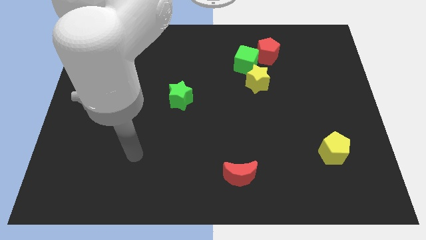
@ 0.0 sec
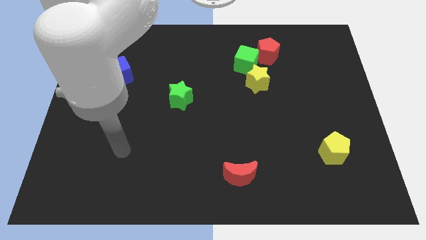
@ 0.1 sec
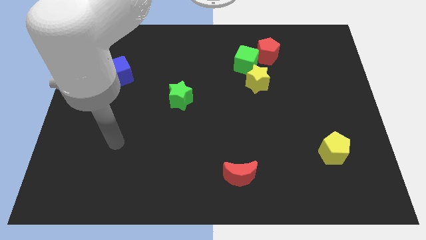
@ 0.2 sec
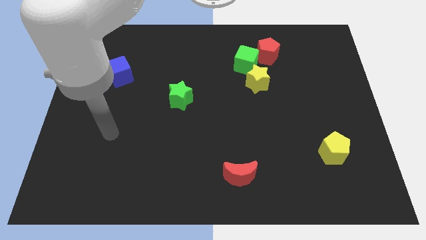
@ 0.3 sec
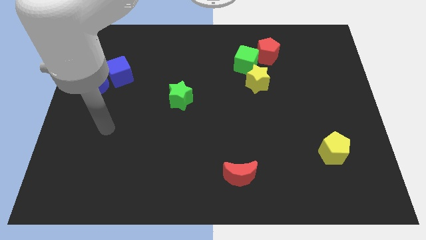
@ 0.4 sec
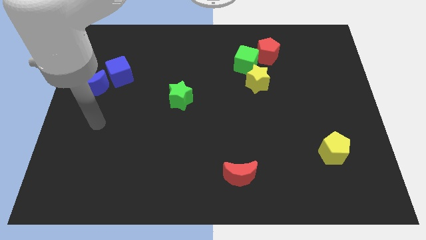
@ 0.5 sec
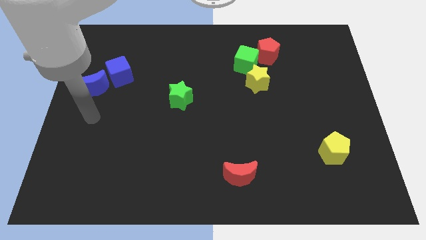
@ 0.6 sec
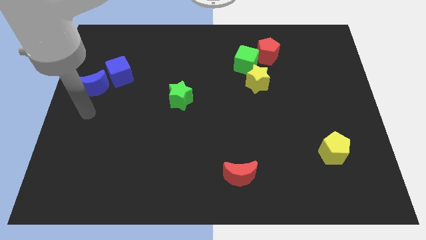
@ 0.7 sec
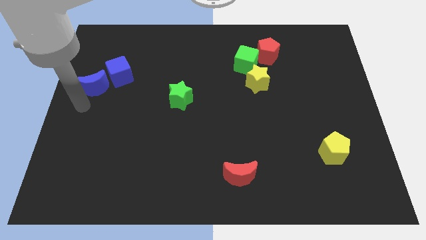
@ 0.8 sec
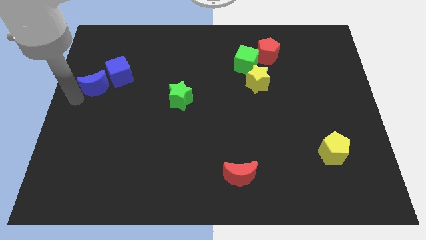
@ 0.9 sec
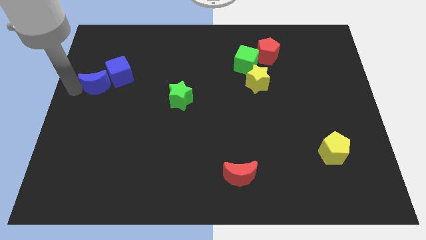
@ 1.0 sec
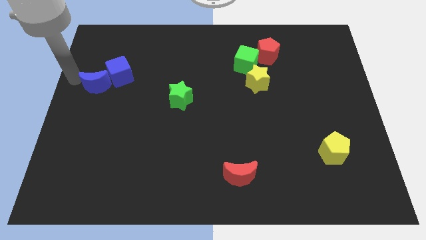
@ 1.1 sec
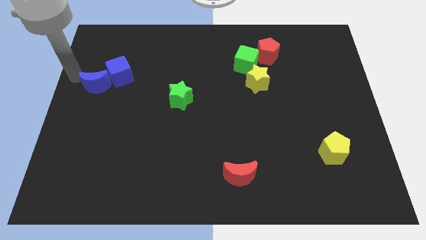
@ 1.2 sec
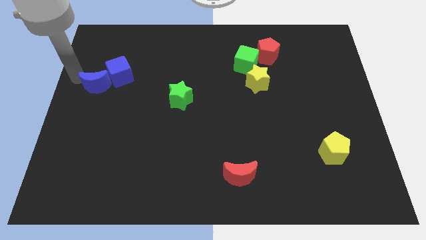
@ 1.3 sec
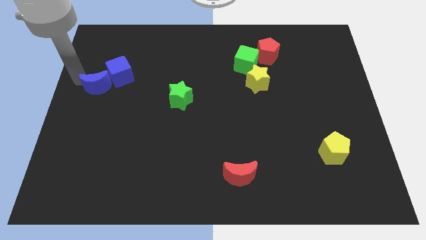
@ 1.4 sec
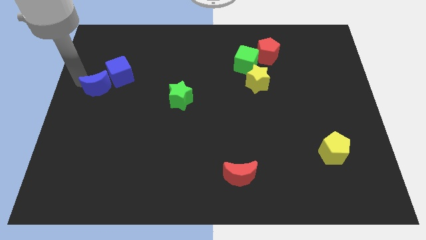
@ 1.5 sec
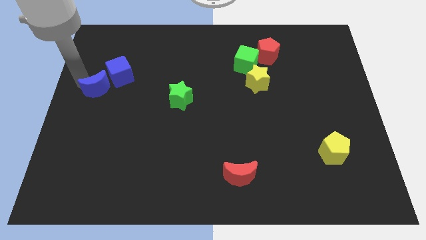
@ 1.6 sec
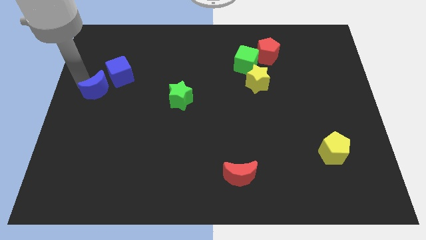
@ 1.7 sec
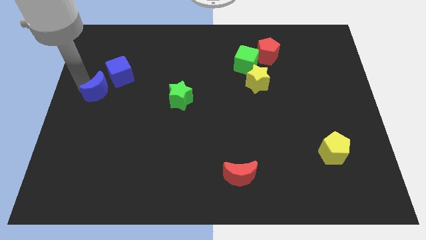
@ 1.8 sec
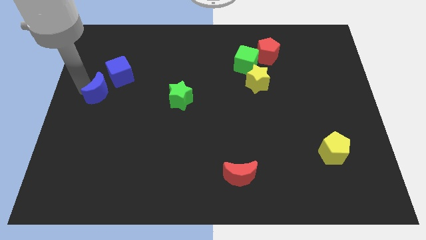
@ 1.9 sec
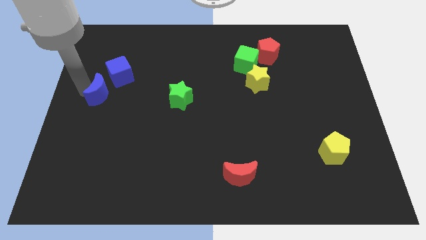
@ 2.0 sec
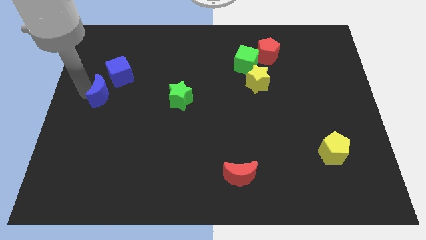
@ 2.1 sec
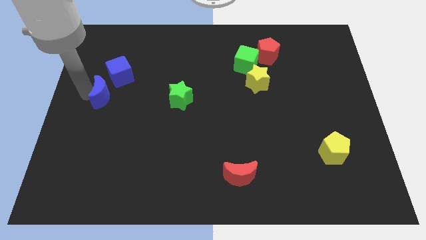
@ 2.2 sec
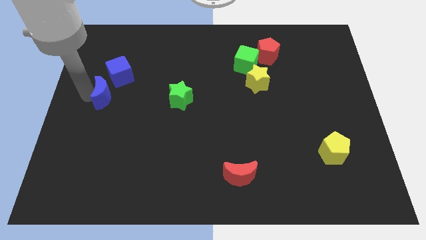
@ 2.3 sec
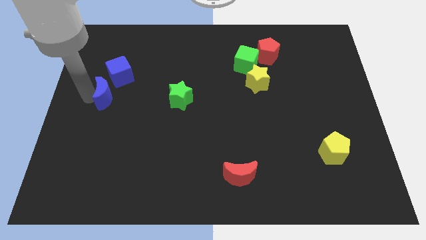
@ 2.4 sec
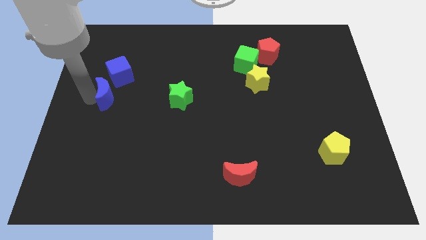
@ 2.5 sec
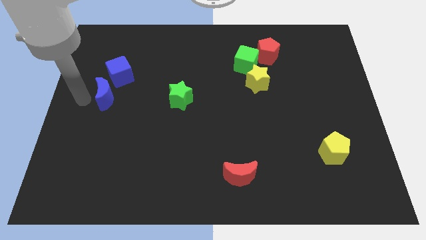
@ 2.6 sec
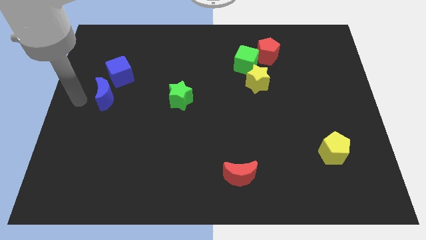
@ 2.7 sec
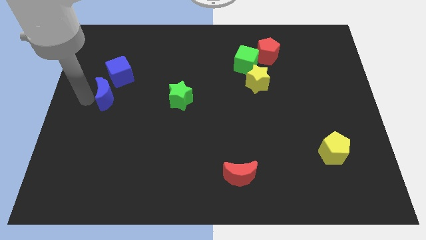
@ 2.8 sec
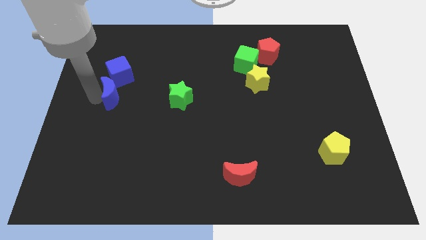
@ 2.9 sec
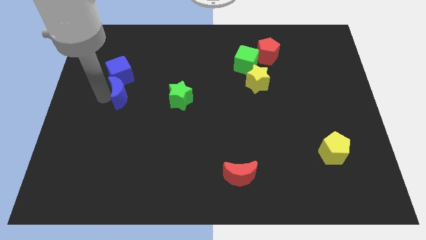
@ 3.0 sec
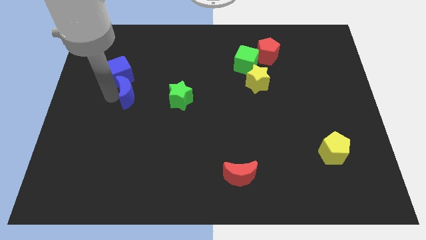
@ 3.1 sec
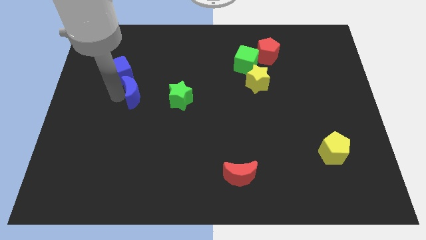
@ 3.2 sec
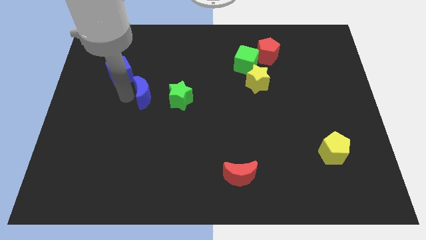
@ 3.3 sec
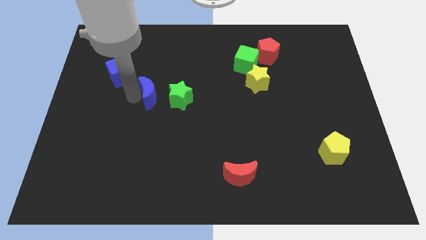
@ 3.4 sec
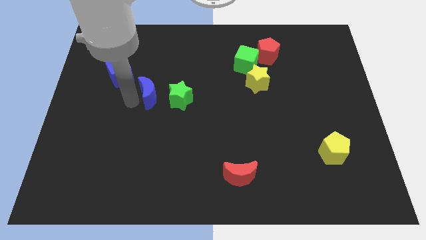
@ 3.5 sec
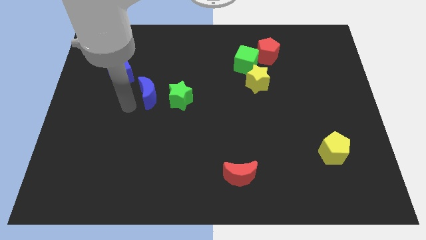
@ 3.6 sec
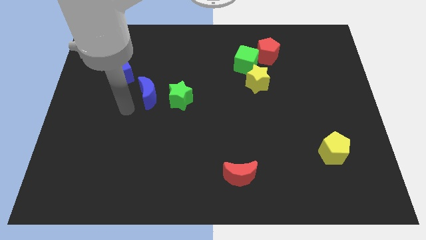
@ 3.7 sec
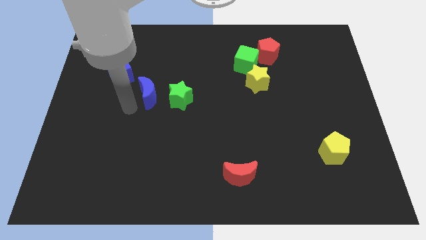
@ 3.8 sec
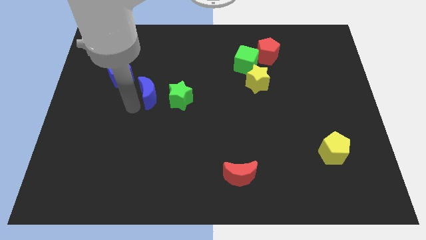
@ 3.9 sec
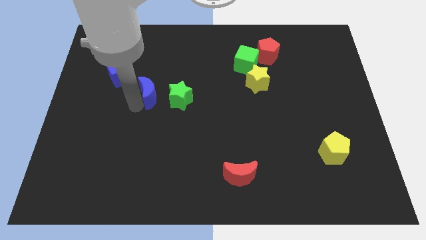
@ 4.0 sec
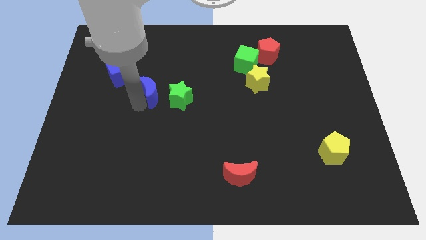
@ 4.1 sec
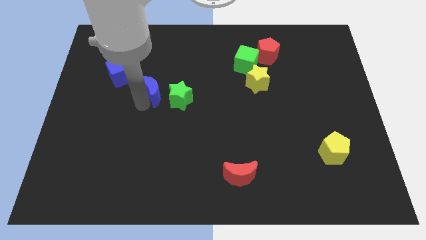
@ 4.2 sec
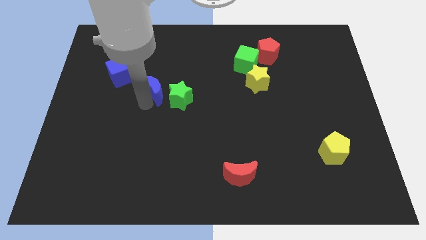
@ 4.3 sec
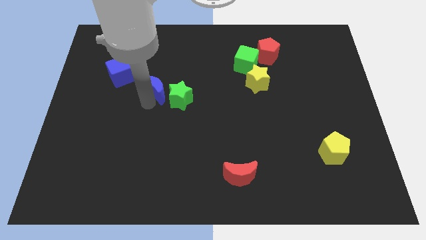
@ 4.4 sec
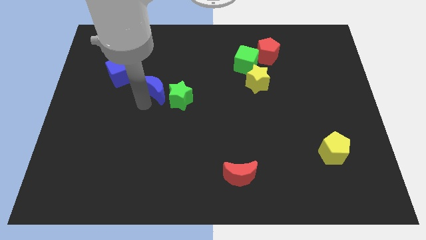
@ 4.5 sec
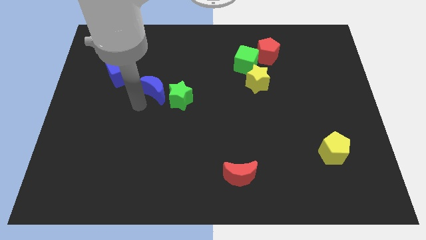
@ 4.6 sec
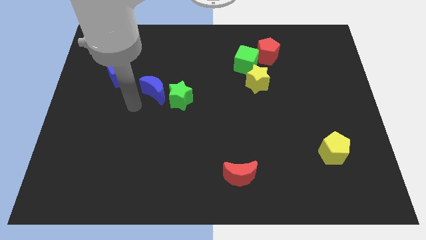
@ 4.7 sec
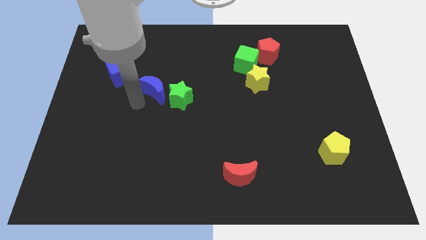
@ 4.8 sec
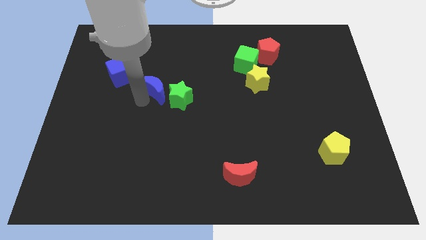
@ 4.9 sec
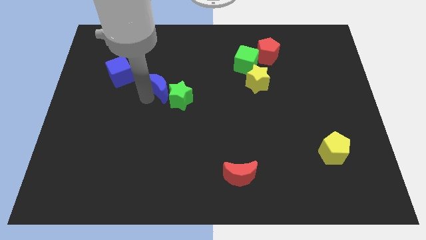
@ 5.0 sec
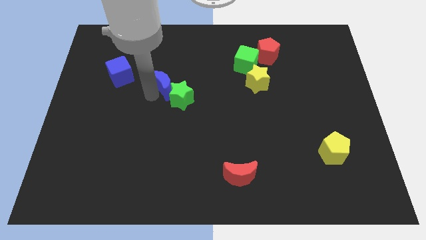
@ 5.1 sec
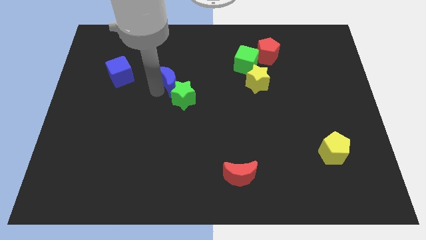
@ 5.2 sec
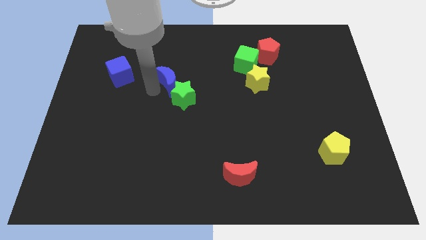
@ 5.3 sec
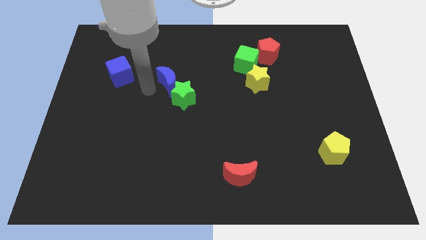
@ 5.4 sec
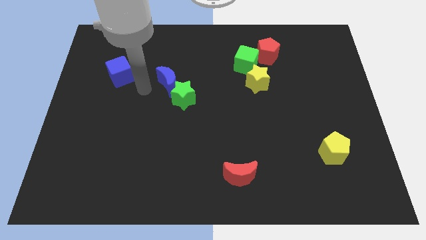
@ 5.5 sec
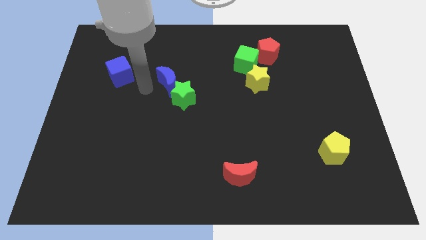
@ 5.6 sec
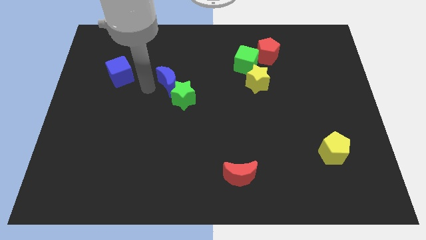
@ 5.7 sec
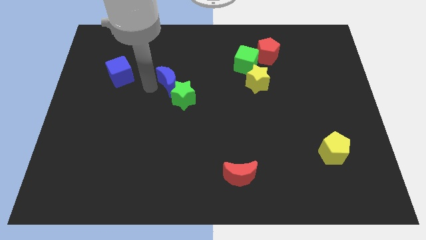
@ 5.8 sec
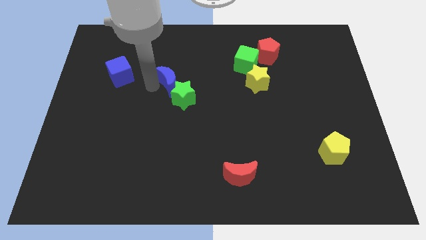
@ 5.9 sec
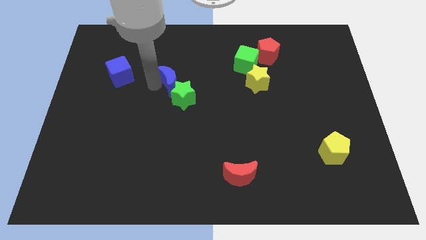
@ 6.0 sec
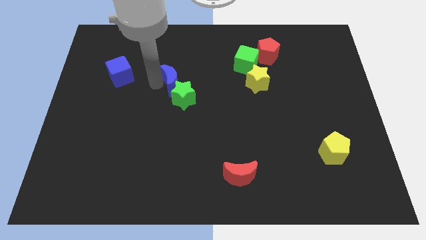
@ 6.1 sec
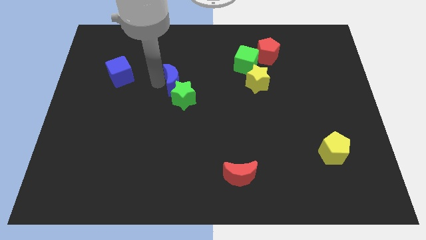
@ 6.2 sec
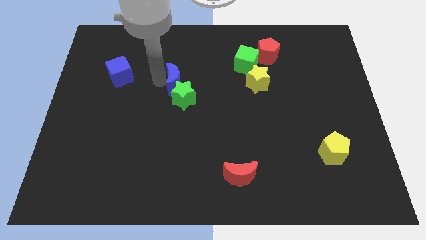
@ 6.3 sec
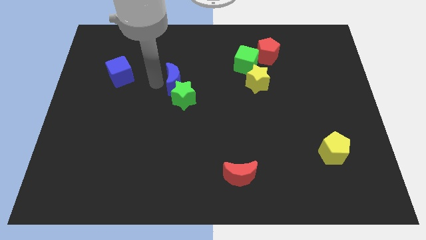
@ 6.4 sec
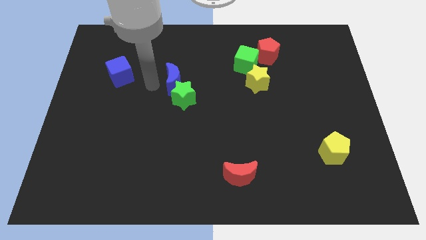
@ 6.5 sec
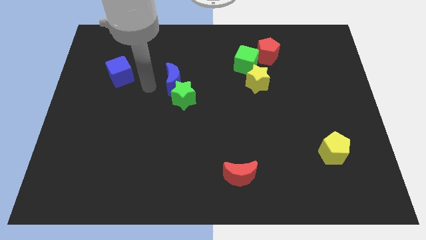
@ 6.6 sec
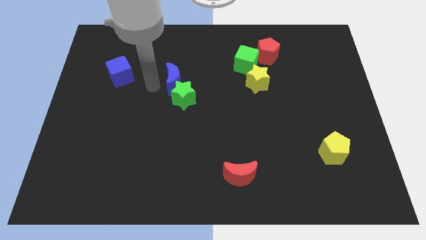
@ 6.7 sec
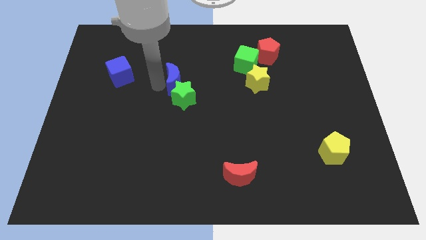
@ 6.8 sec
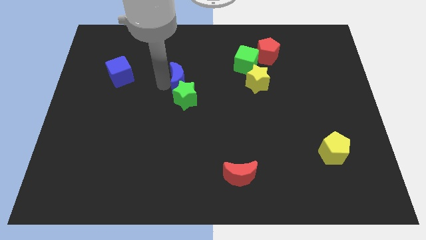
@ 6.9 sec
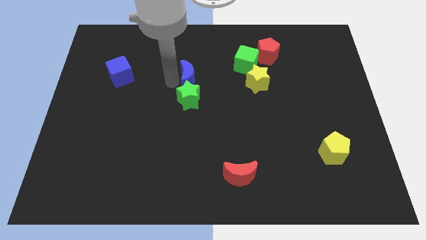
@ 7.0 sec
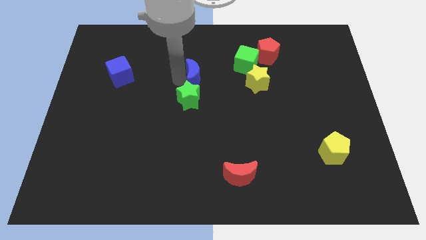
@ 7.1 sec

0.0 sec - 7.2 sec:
push the blue moon just left of the yellow star
